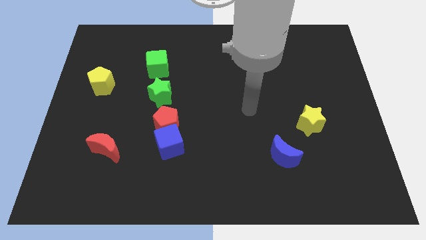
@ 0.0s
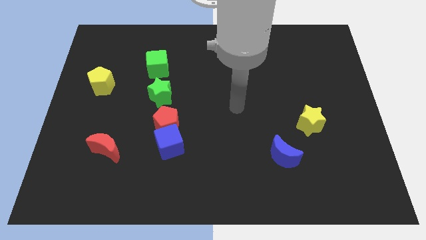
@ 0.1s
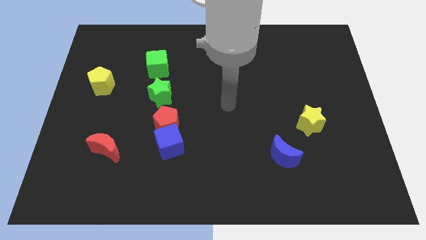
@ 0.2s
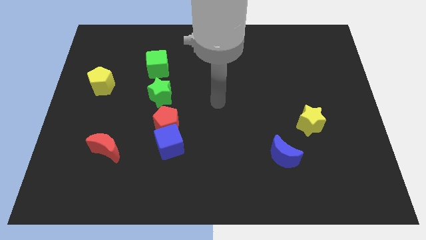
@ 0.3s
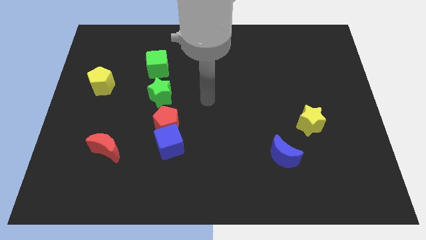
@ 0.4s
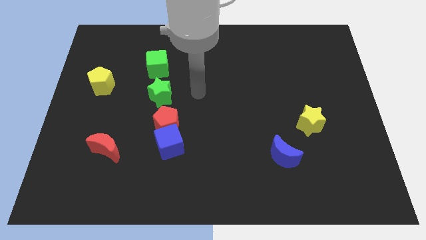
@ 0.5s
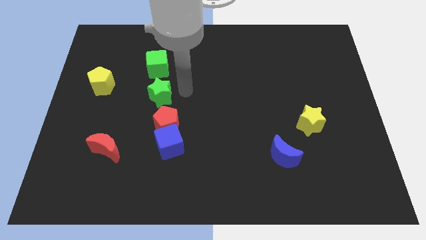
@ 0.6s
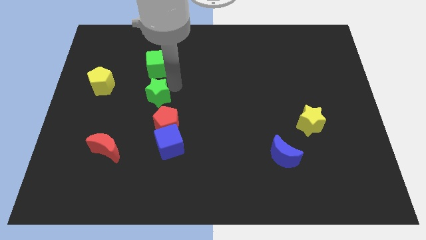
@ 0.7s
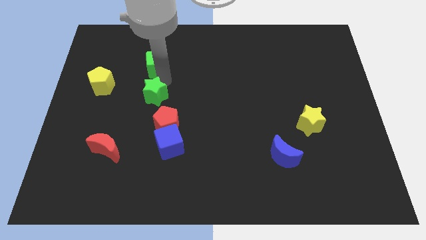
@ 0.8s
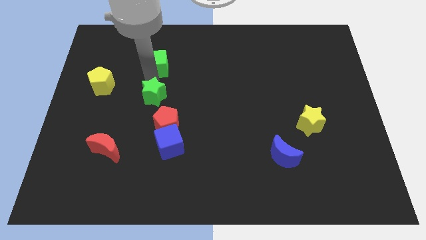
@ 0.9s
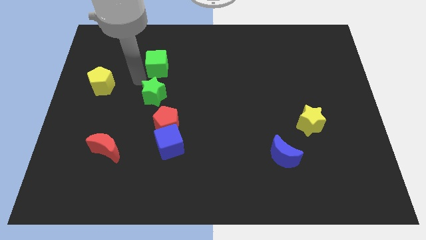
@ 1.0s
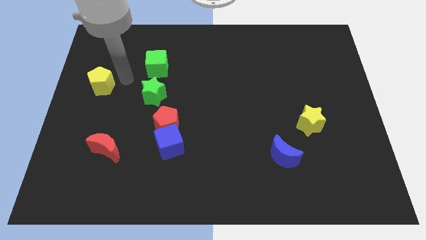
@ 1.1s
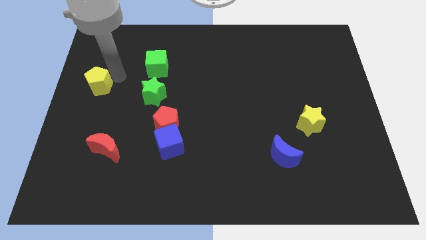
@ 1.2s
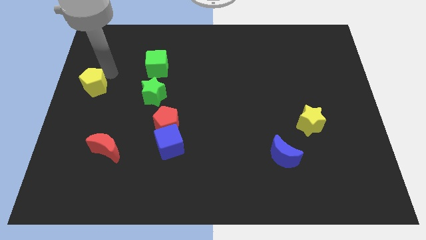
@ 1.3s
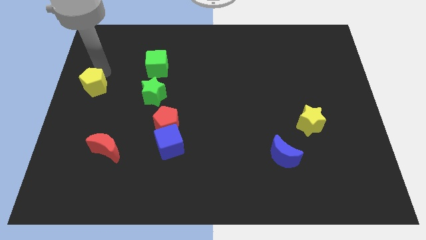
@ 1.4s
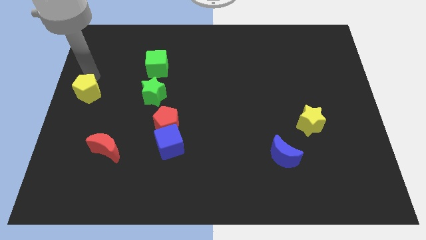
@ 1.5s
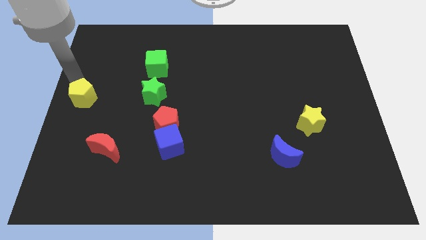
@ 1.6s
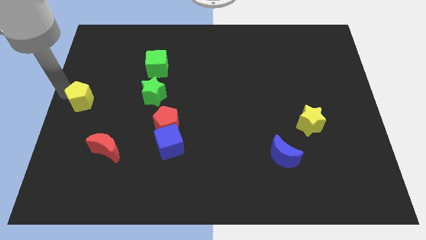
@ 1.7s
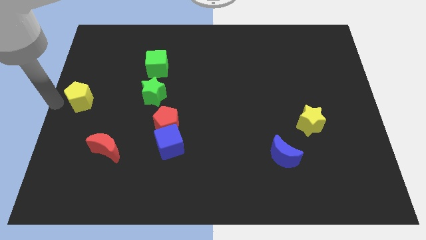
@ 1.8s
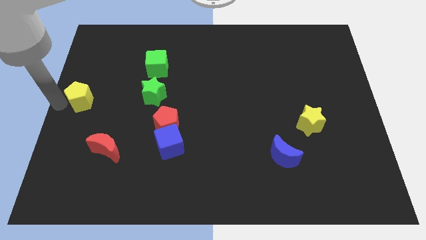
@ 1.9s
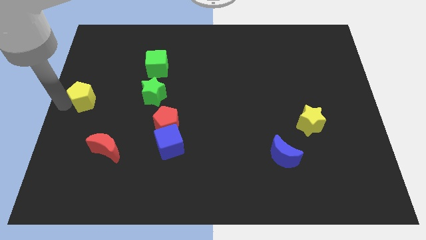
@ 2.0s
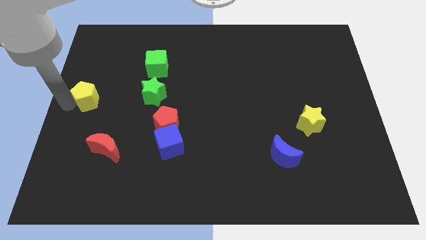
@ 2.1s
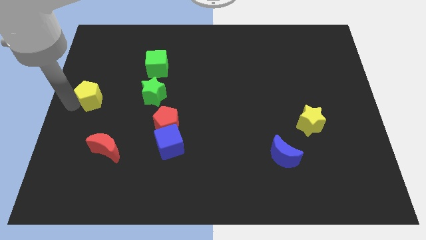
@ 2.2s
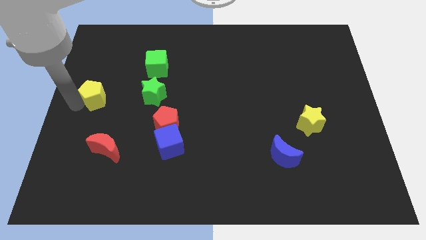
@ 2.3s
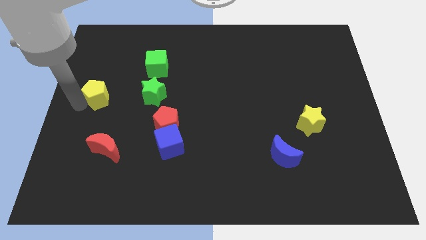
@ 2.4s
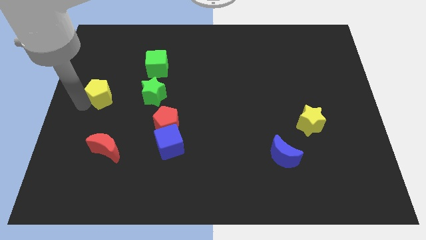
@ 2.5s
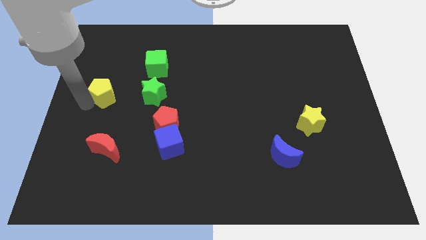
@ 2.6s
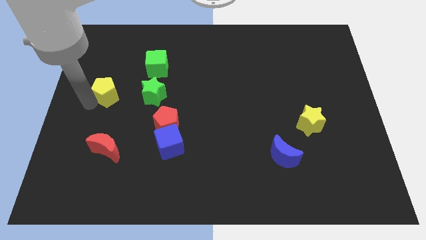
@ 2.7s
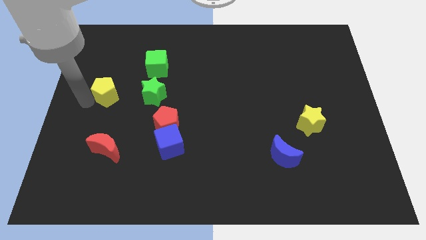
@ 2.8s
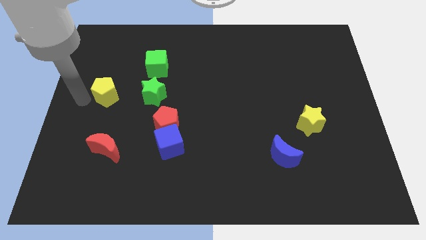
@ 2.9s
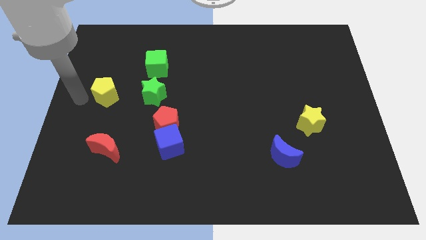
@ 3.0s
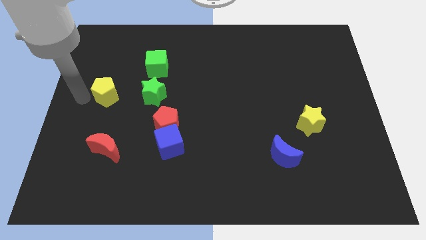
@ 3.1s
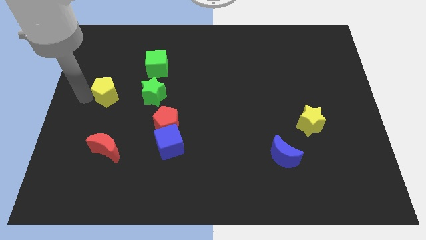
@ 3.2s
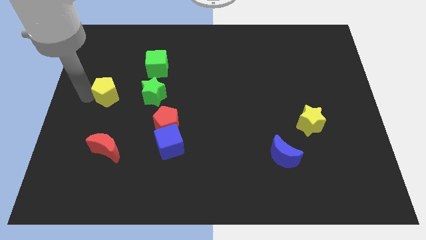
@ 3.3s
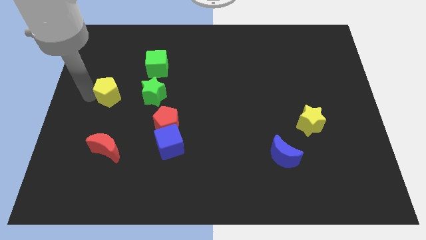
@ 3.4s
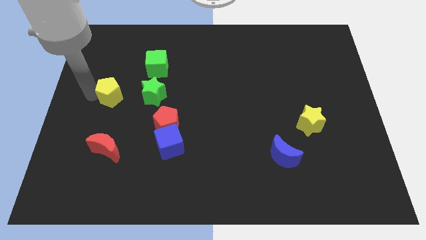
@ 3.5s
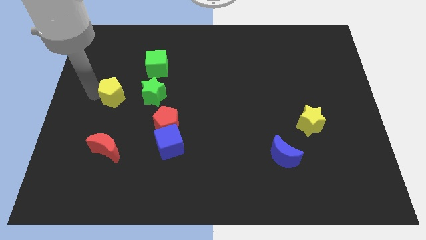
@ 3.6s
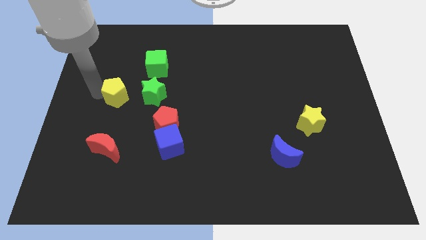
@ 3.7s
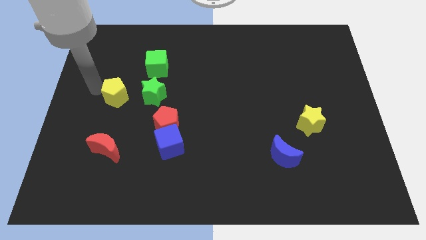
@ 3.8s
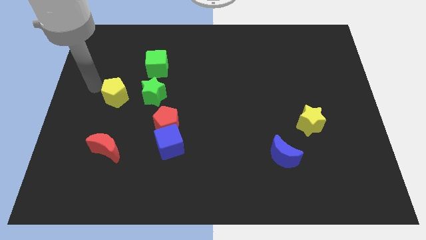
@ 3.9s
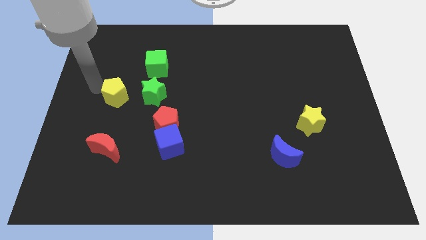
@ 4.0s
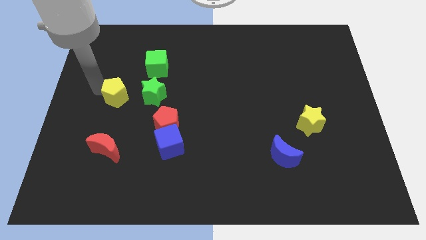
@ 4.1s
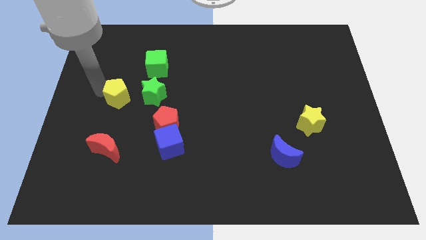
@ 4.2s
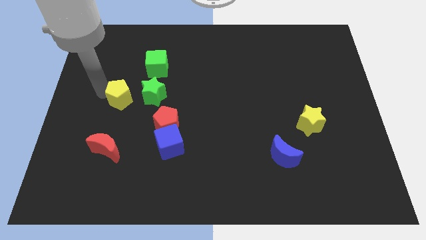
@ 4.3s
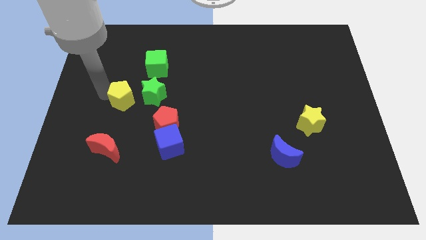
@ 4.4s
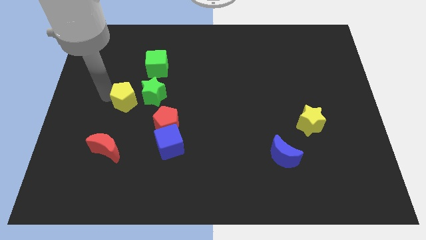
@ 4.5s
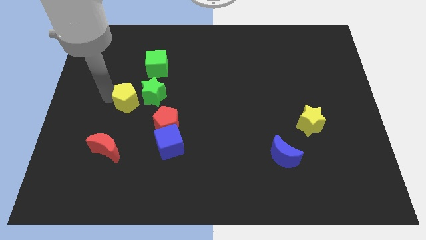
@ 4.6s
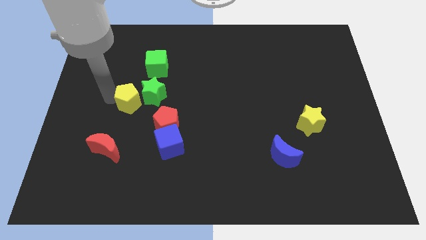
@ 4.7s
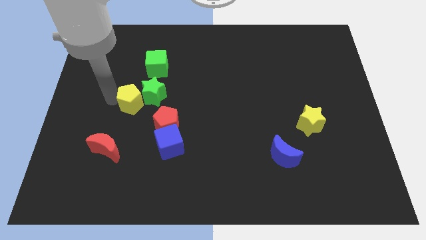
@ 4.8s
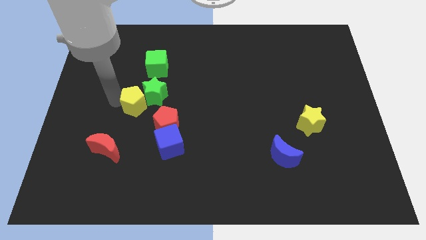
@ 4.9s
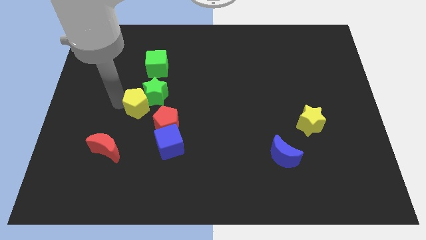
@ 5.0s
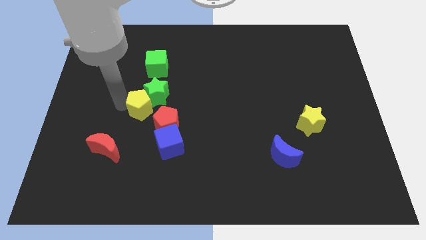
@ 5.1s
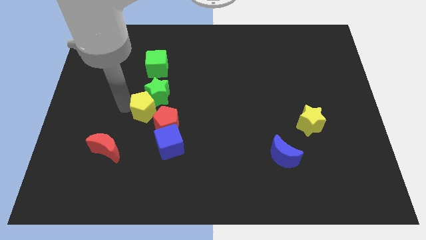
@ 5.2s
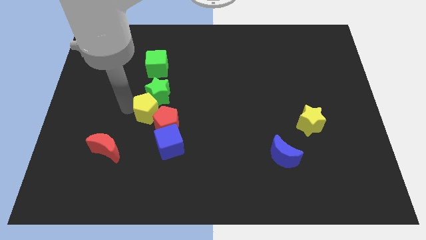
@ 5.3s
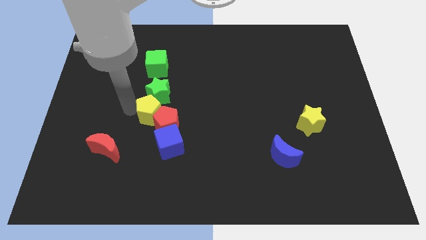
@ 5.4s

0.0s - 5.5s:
move the yellow pentagon to the red pentagon

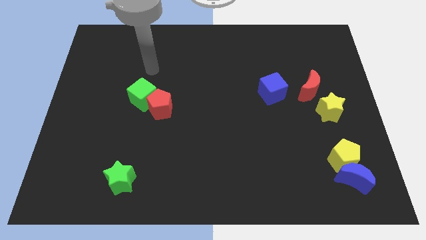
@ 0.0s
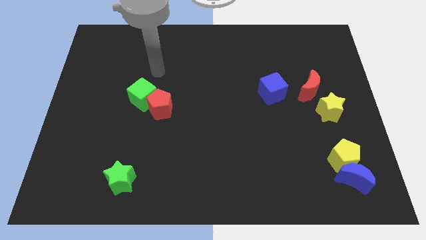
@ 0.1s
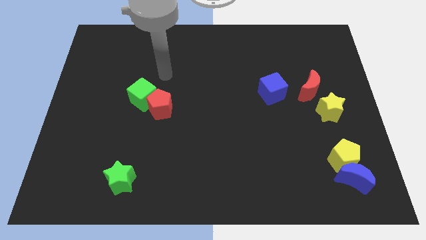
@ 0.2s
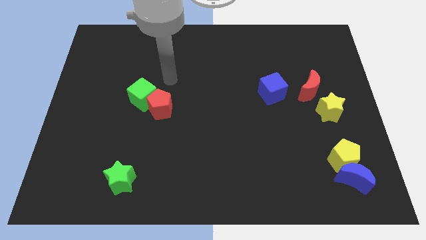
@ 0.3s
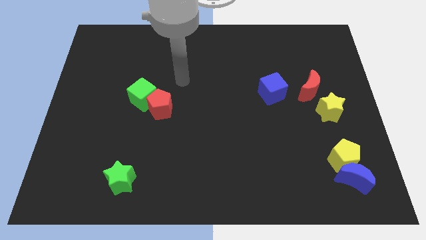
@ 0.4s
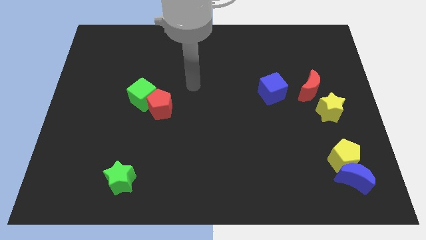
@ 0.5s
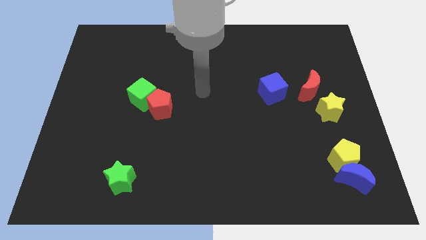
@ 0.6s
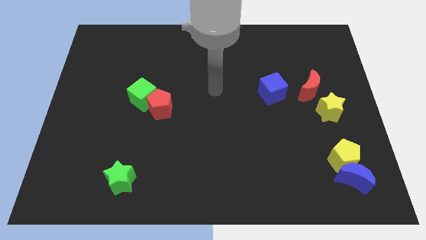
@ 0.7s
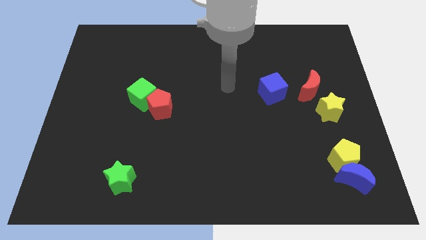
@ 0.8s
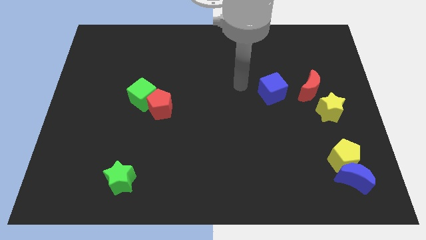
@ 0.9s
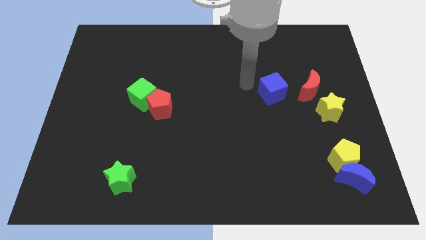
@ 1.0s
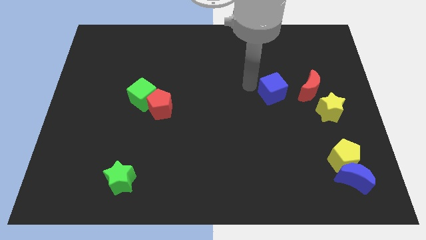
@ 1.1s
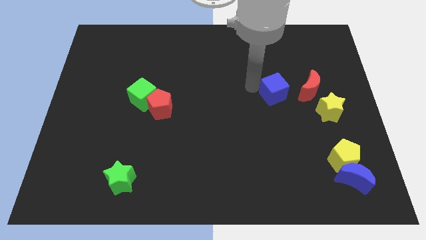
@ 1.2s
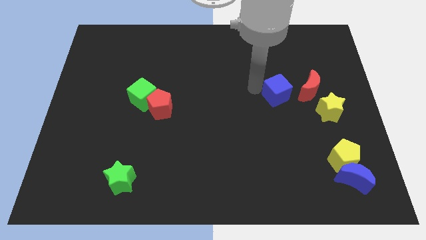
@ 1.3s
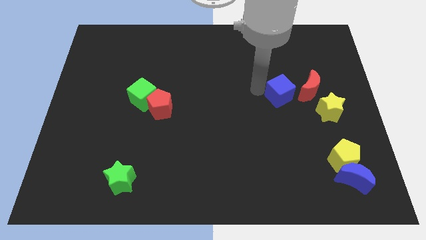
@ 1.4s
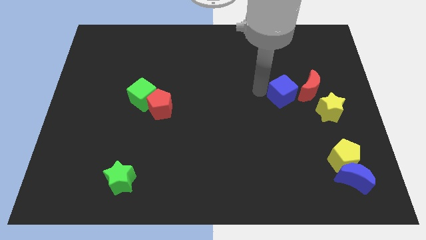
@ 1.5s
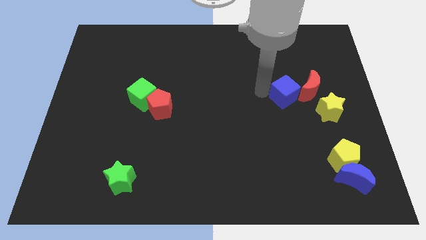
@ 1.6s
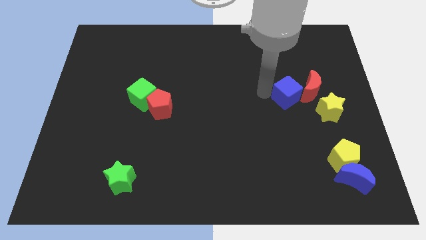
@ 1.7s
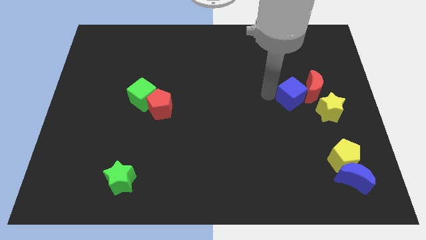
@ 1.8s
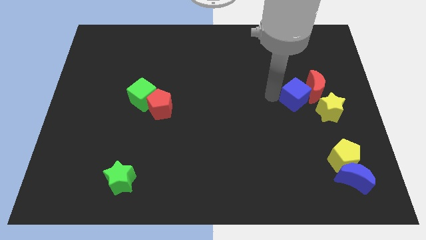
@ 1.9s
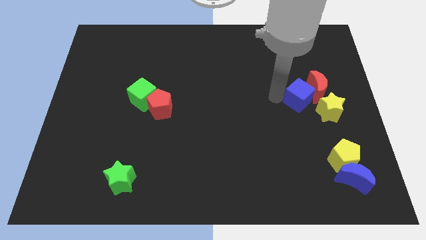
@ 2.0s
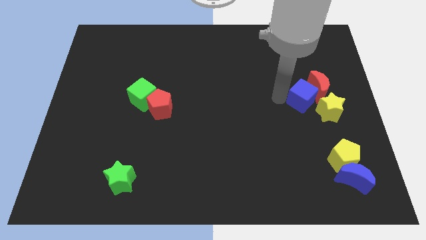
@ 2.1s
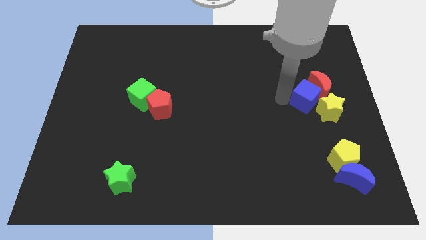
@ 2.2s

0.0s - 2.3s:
push the blue cube close to the yellow star
